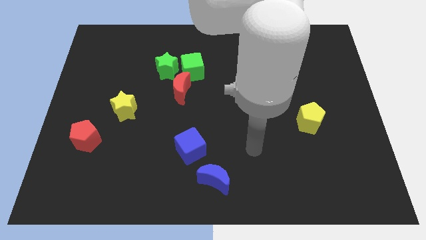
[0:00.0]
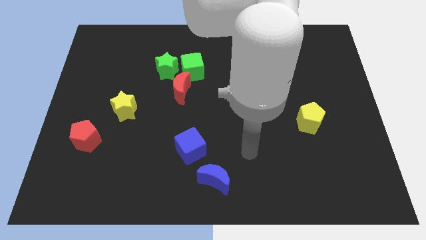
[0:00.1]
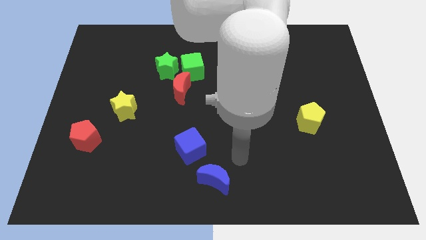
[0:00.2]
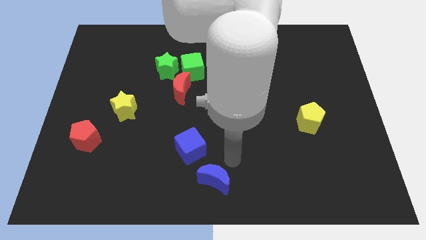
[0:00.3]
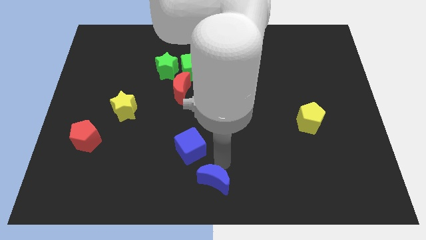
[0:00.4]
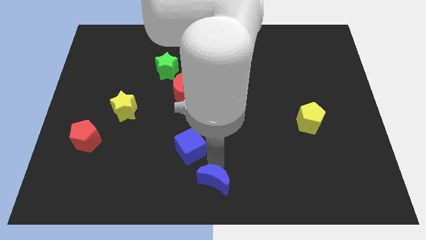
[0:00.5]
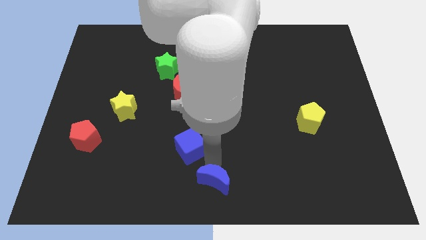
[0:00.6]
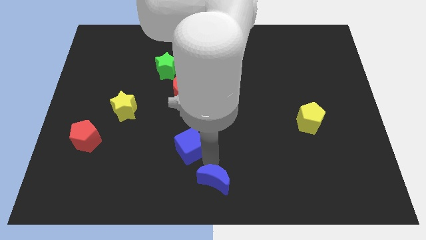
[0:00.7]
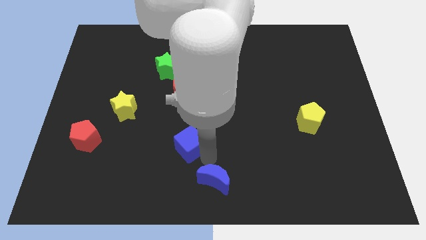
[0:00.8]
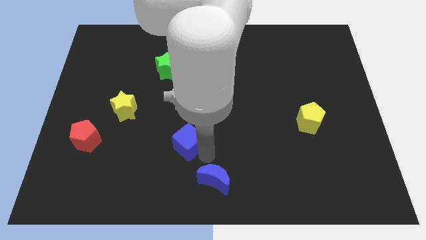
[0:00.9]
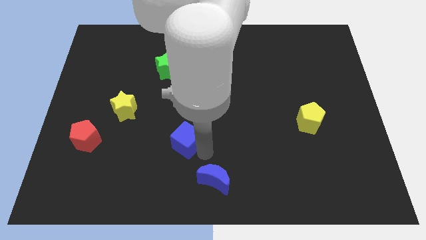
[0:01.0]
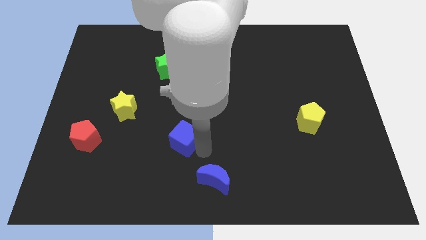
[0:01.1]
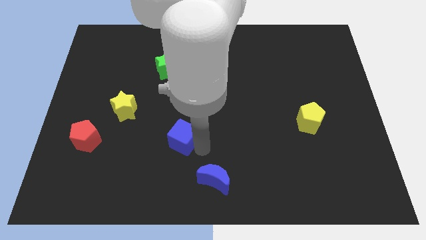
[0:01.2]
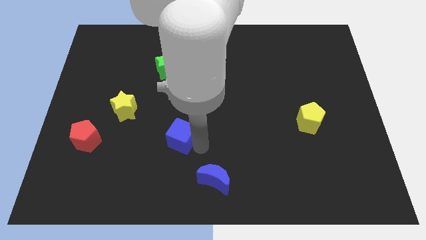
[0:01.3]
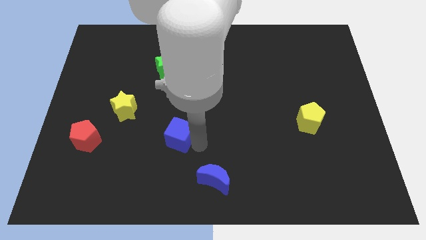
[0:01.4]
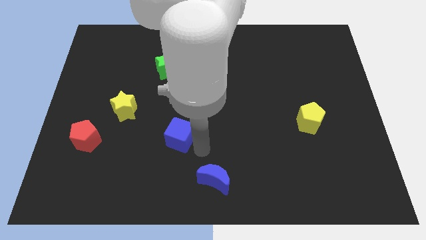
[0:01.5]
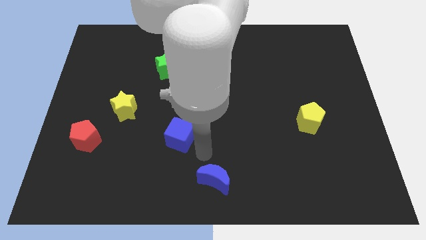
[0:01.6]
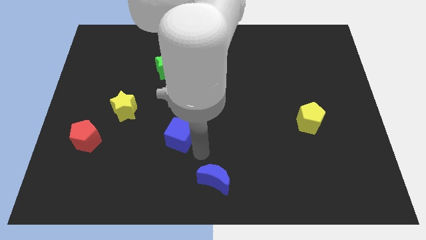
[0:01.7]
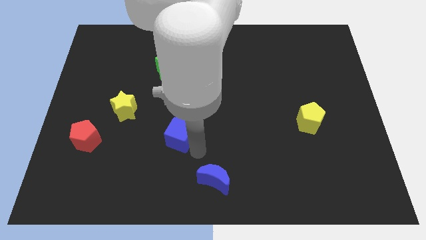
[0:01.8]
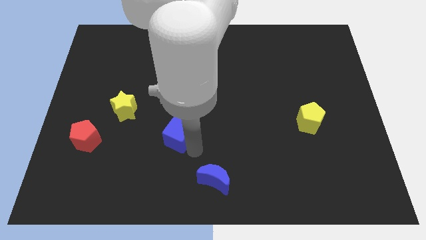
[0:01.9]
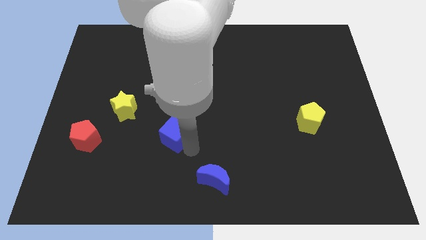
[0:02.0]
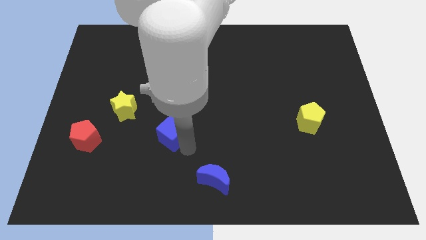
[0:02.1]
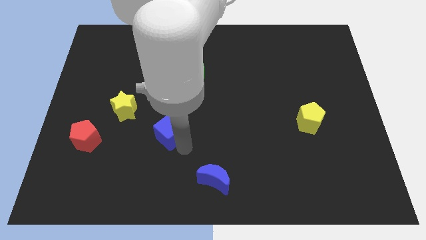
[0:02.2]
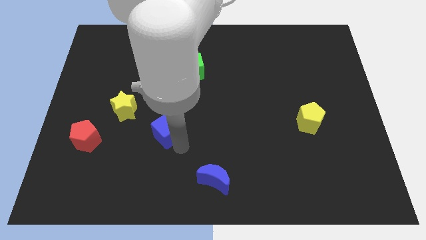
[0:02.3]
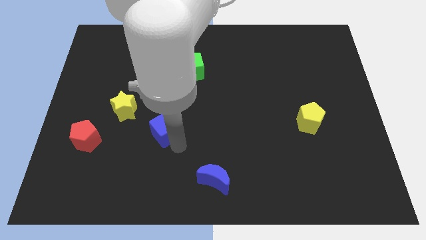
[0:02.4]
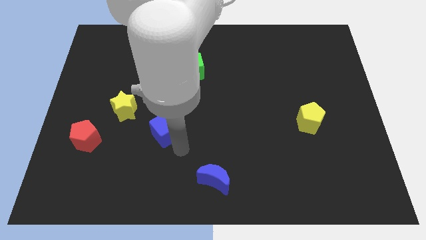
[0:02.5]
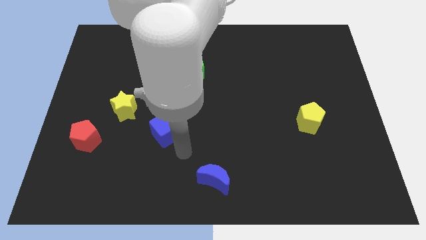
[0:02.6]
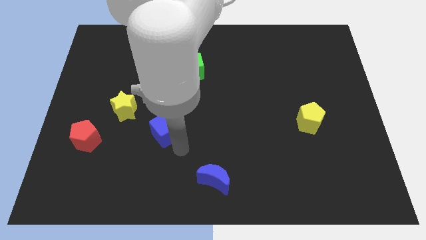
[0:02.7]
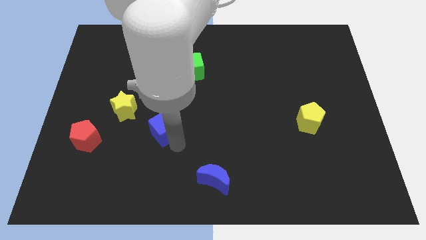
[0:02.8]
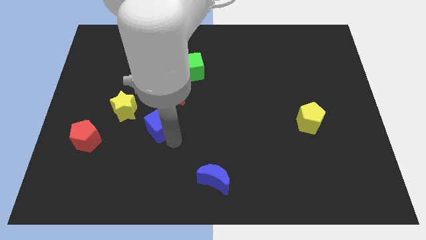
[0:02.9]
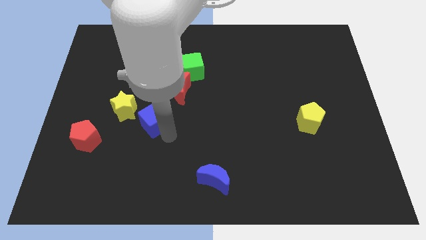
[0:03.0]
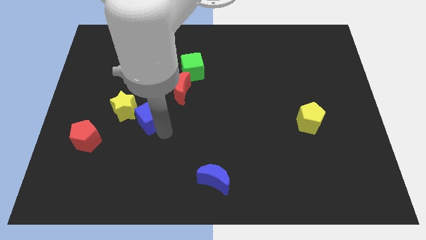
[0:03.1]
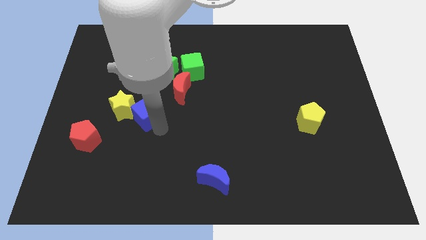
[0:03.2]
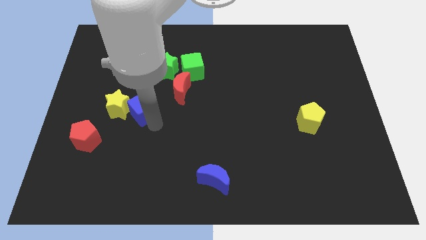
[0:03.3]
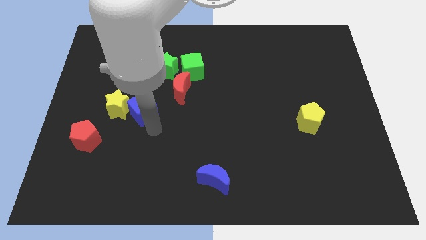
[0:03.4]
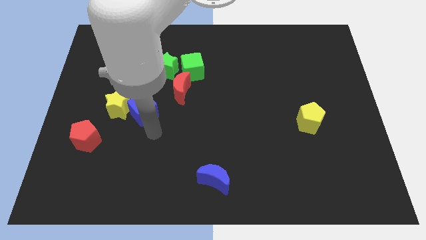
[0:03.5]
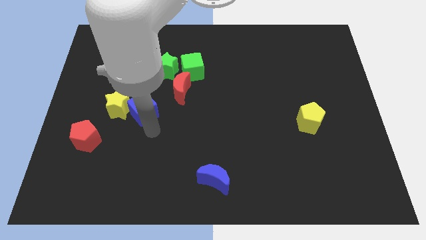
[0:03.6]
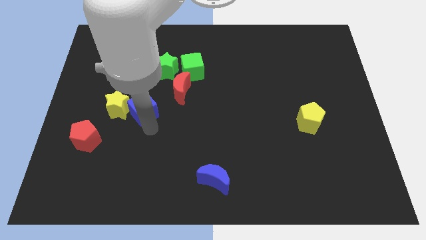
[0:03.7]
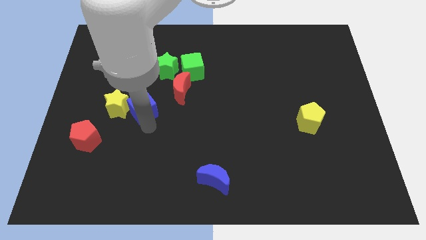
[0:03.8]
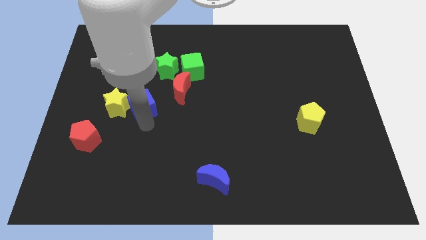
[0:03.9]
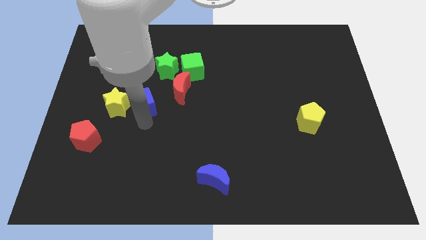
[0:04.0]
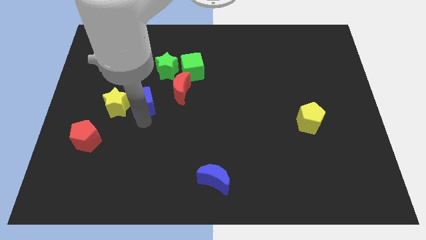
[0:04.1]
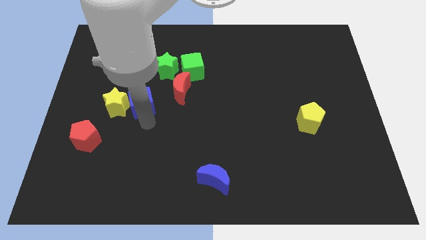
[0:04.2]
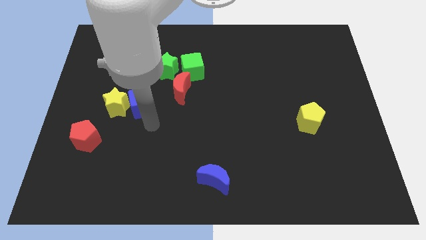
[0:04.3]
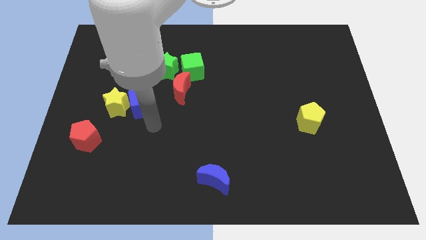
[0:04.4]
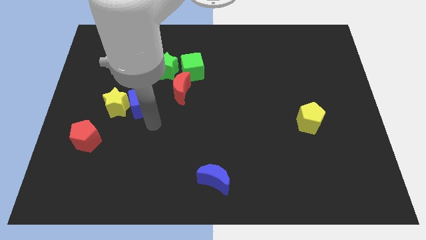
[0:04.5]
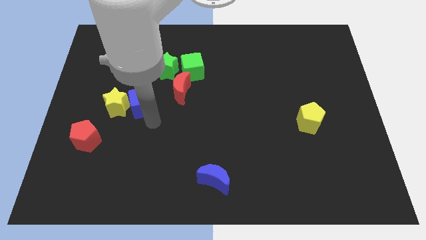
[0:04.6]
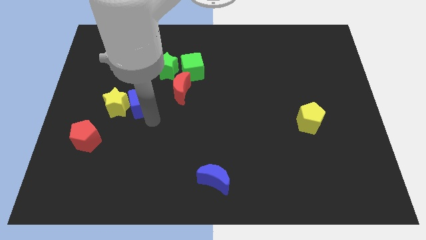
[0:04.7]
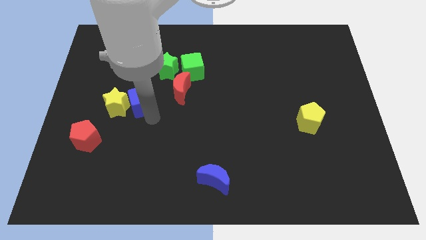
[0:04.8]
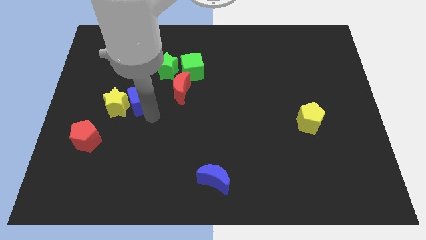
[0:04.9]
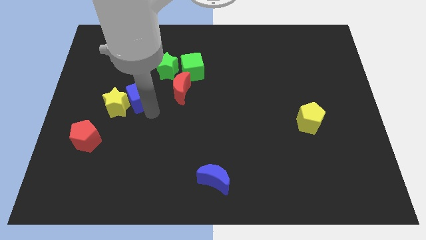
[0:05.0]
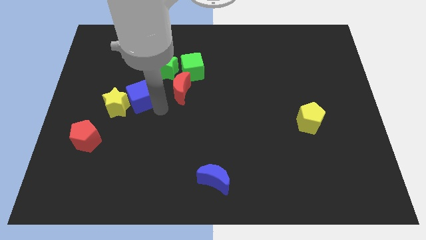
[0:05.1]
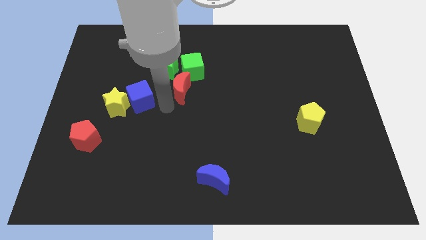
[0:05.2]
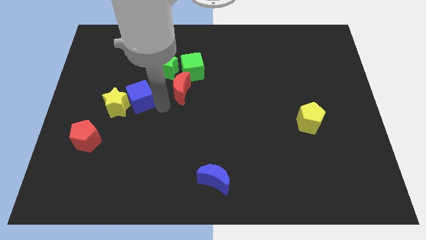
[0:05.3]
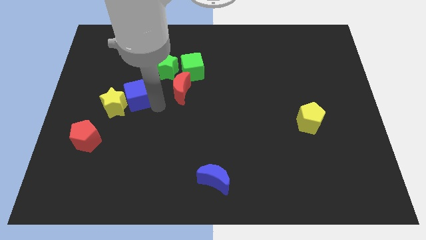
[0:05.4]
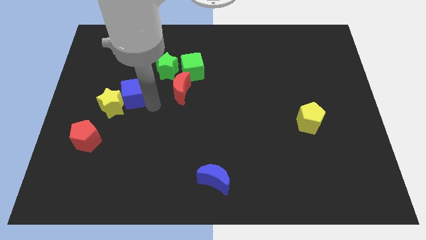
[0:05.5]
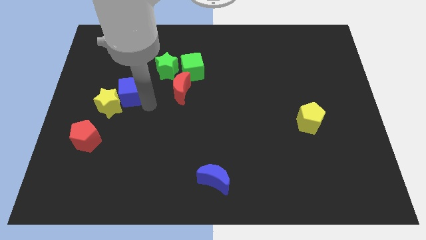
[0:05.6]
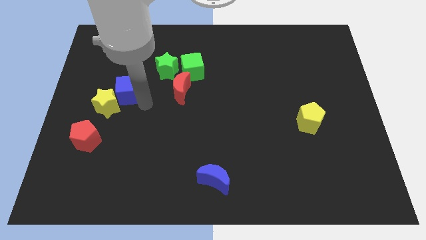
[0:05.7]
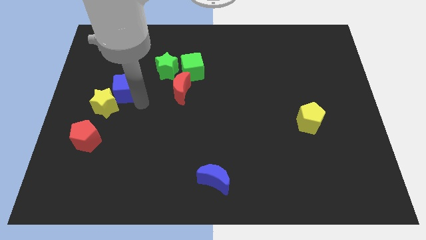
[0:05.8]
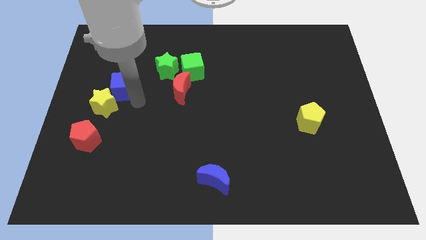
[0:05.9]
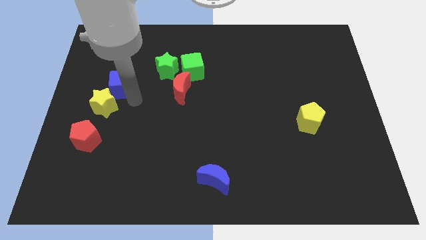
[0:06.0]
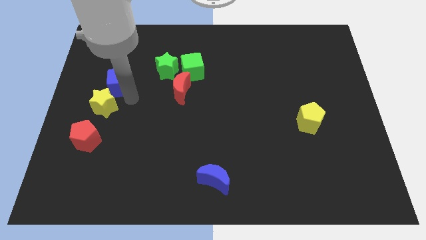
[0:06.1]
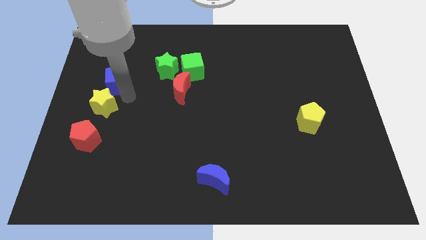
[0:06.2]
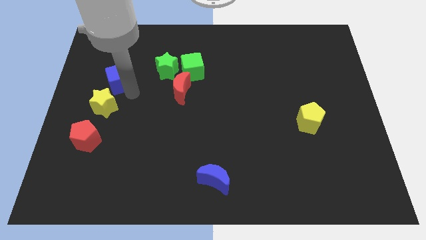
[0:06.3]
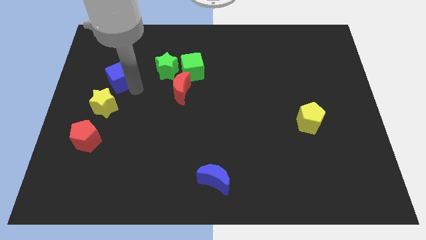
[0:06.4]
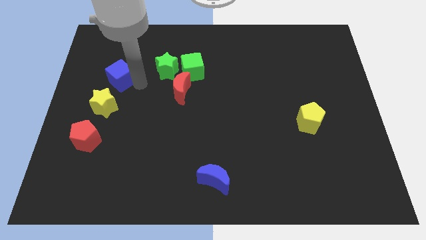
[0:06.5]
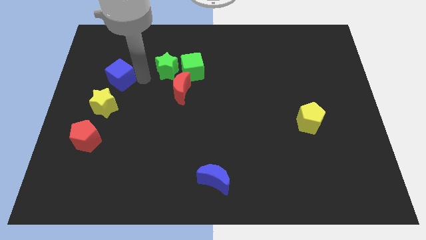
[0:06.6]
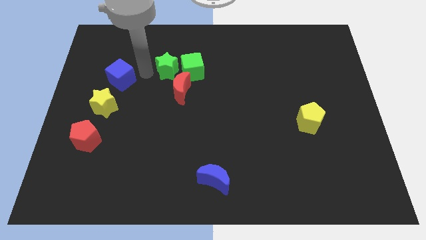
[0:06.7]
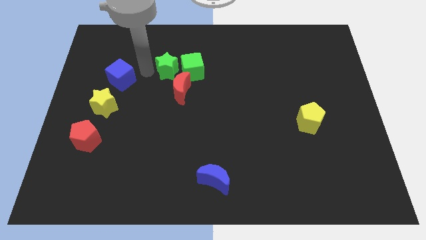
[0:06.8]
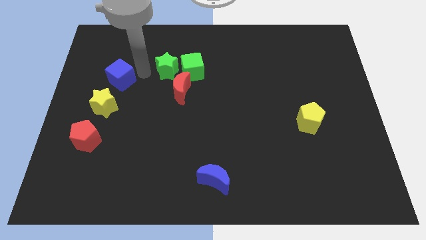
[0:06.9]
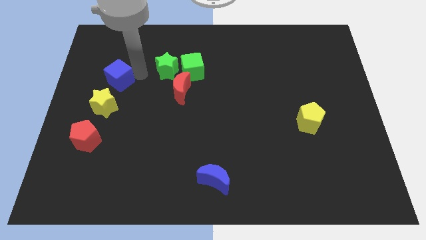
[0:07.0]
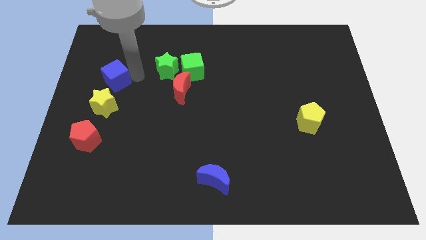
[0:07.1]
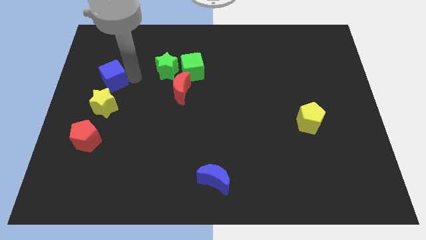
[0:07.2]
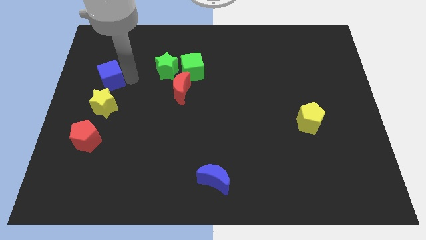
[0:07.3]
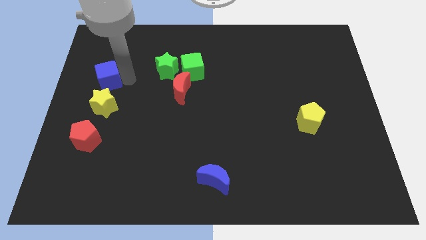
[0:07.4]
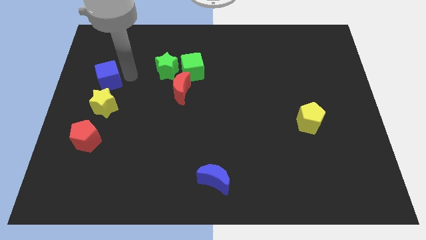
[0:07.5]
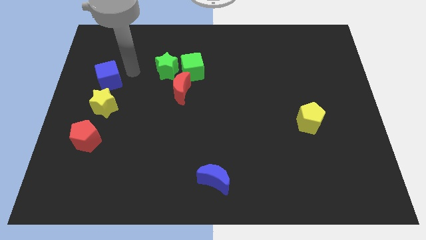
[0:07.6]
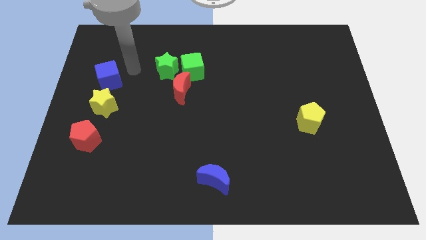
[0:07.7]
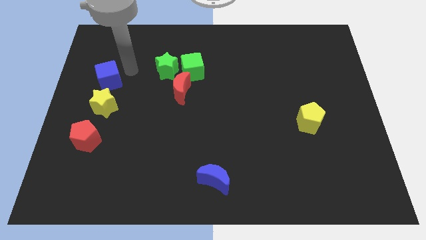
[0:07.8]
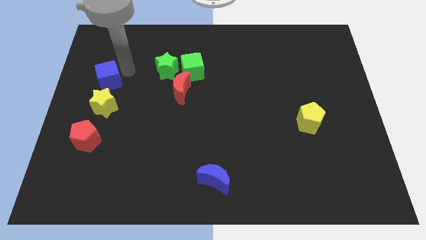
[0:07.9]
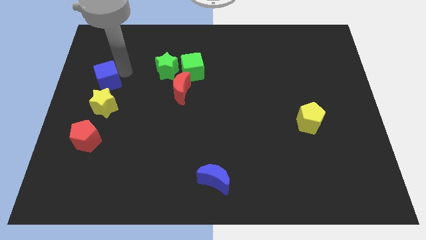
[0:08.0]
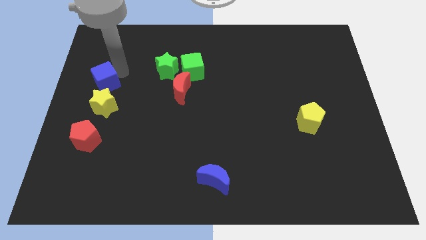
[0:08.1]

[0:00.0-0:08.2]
push the blue cube to the top left side of the yellow star
